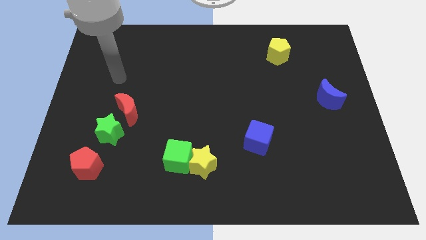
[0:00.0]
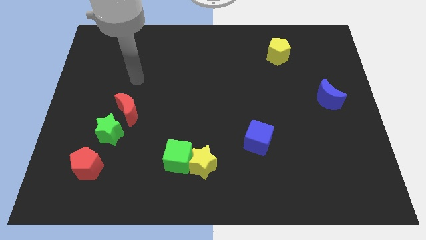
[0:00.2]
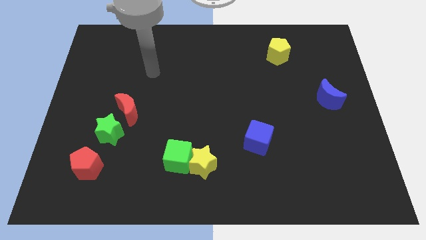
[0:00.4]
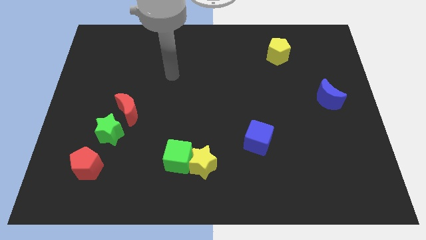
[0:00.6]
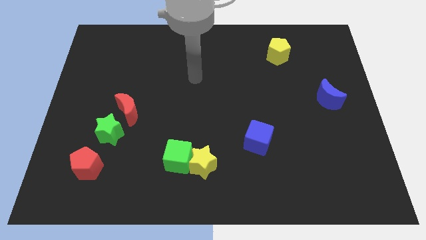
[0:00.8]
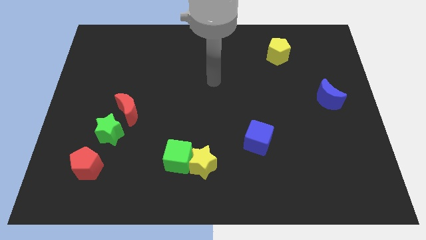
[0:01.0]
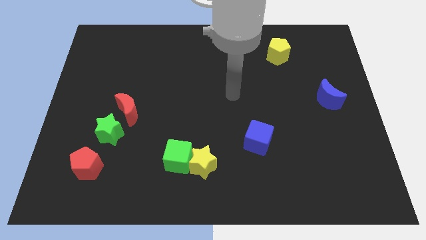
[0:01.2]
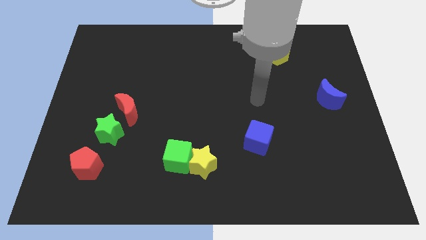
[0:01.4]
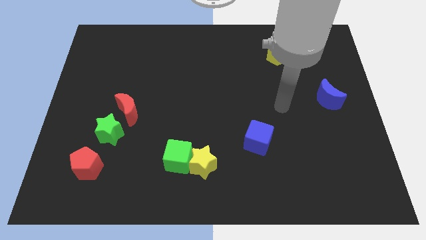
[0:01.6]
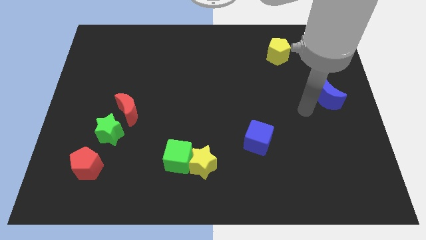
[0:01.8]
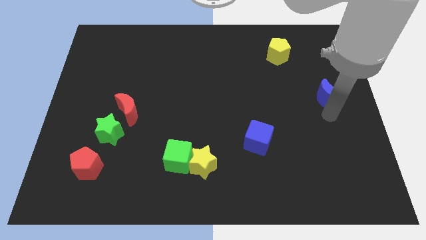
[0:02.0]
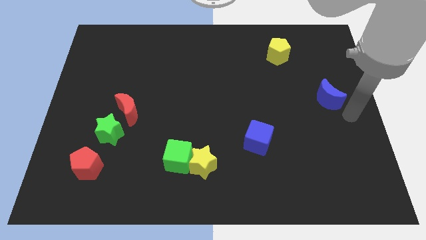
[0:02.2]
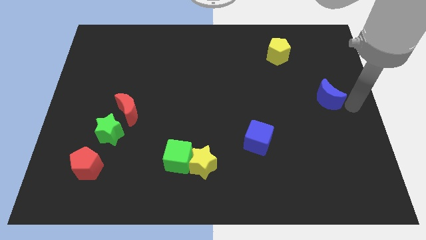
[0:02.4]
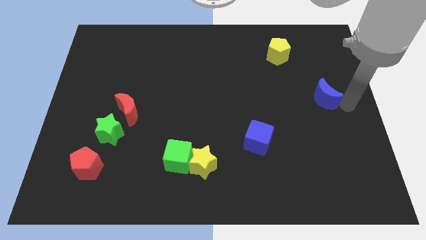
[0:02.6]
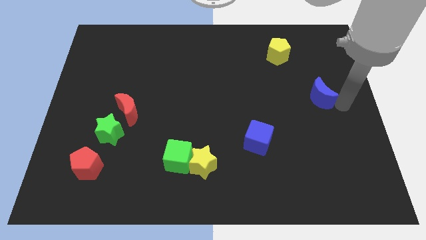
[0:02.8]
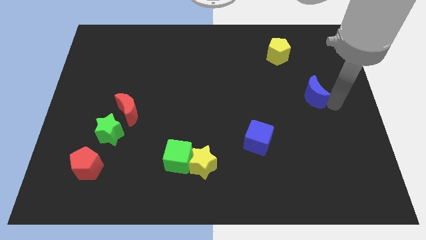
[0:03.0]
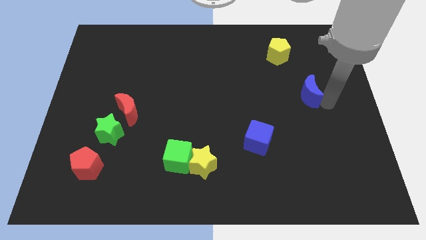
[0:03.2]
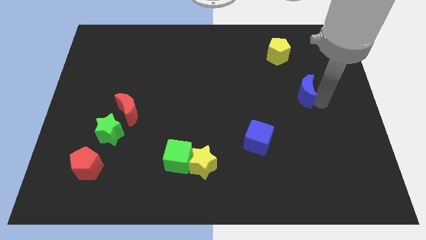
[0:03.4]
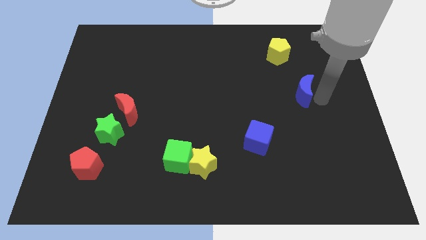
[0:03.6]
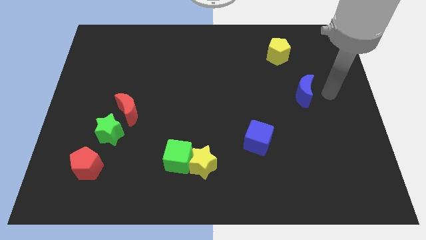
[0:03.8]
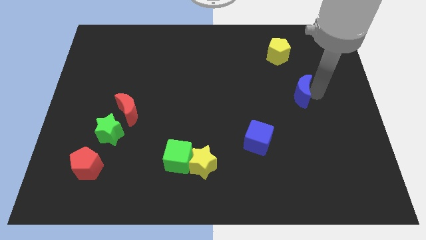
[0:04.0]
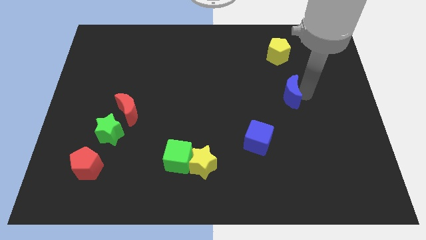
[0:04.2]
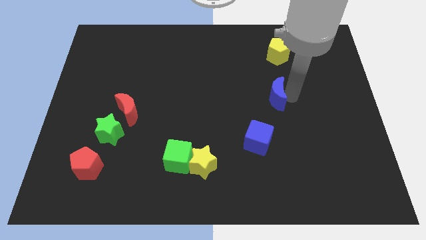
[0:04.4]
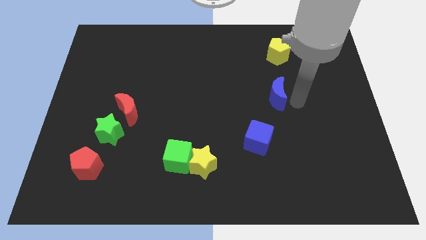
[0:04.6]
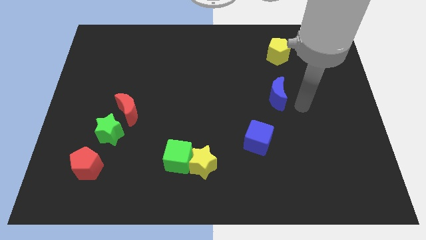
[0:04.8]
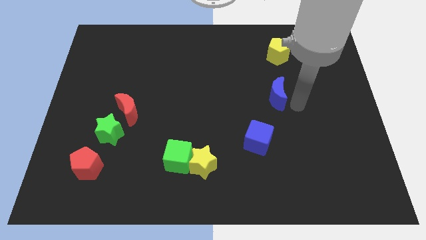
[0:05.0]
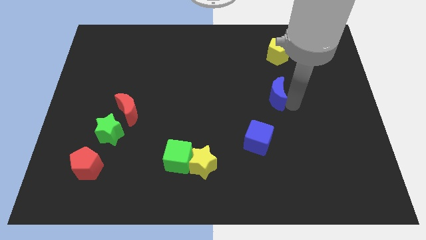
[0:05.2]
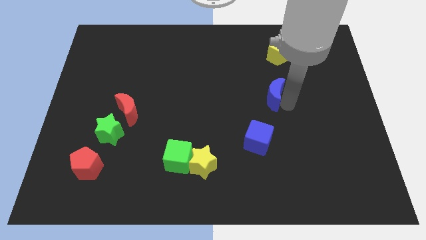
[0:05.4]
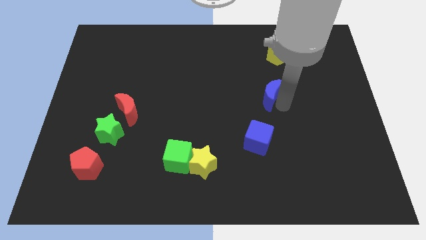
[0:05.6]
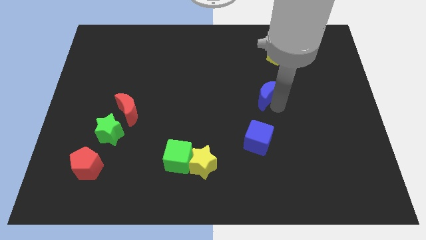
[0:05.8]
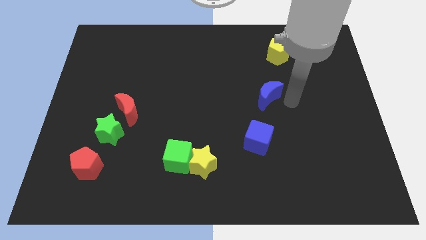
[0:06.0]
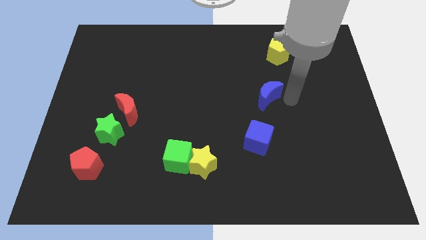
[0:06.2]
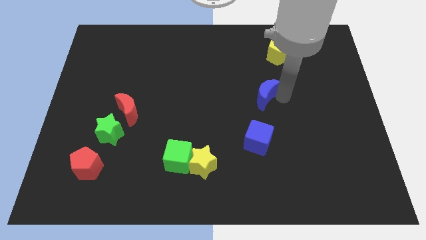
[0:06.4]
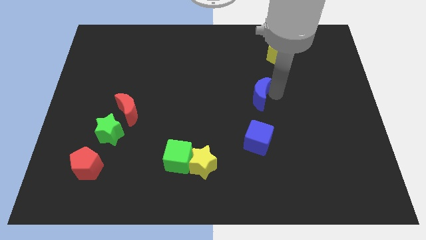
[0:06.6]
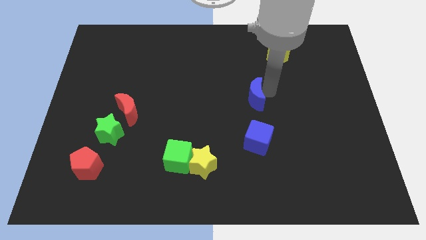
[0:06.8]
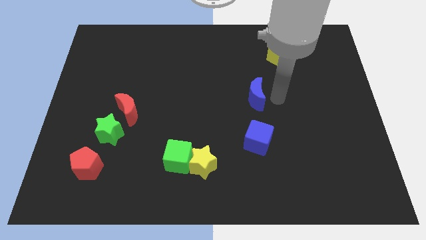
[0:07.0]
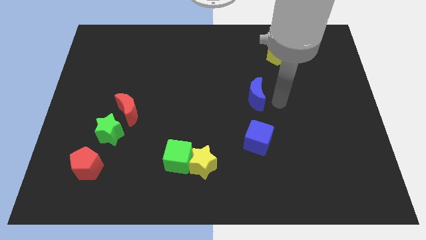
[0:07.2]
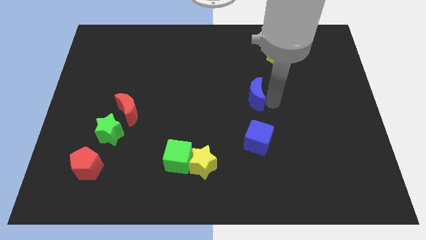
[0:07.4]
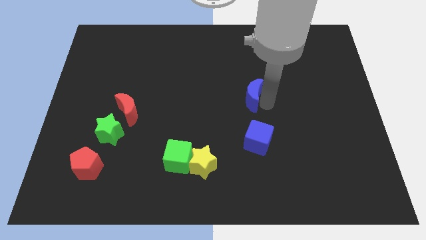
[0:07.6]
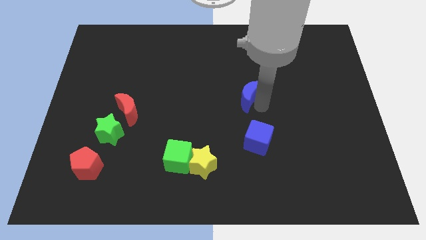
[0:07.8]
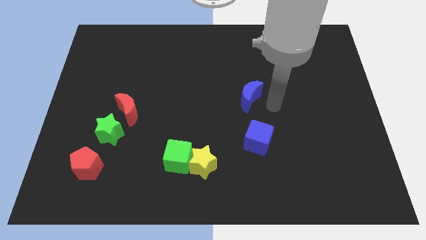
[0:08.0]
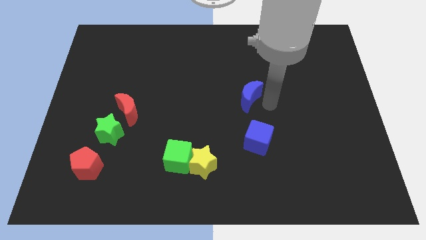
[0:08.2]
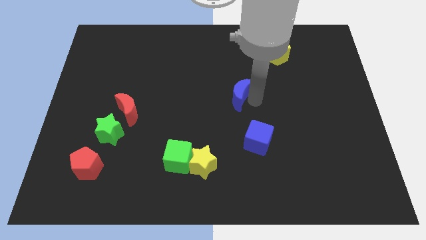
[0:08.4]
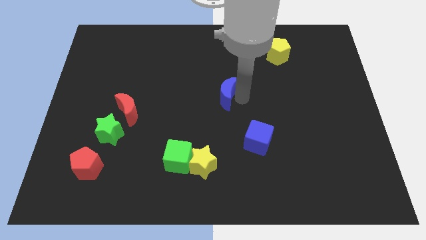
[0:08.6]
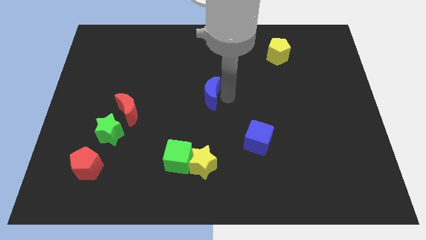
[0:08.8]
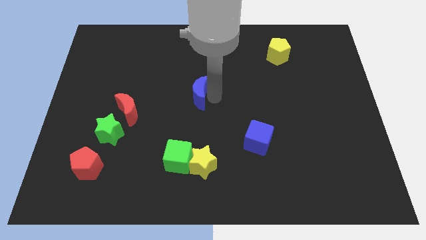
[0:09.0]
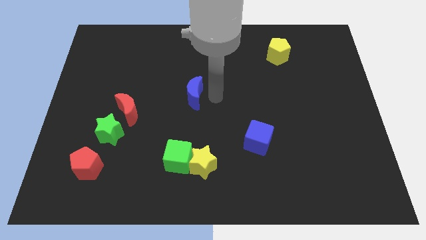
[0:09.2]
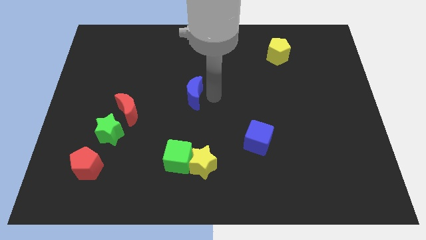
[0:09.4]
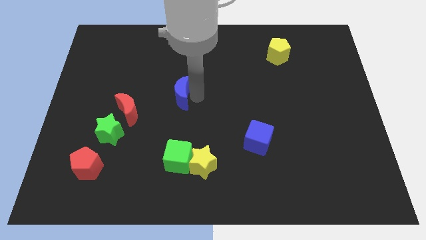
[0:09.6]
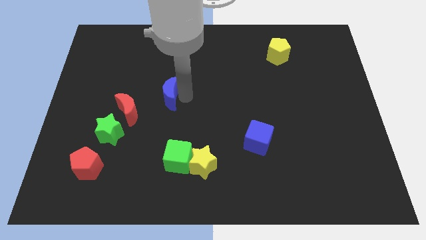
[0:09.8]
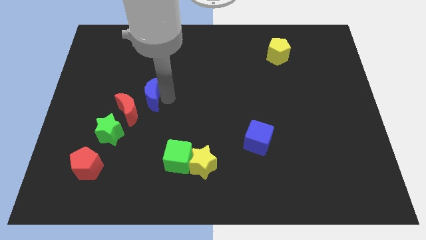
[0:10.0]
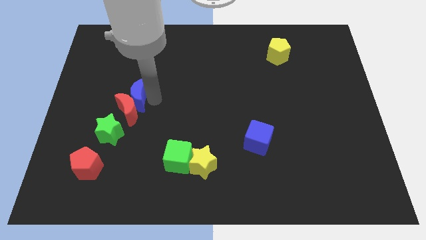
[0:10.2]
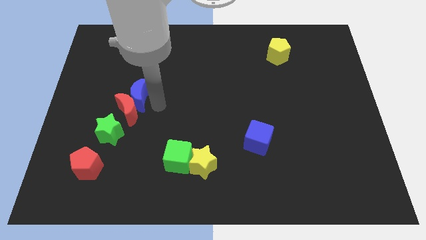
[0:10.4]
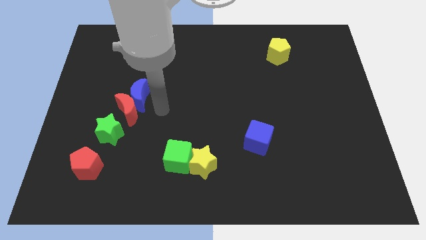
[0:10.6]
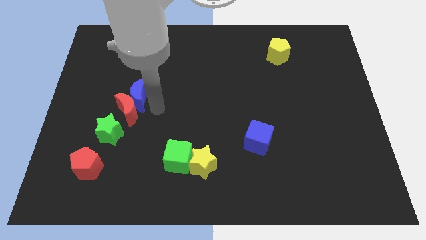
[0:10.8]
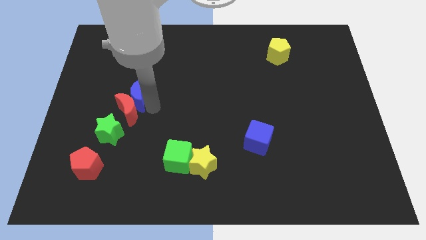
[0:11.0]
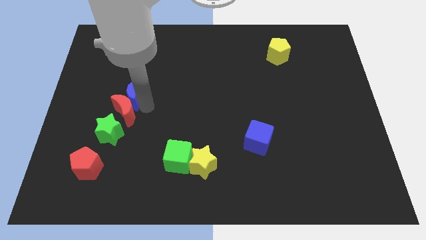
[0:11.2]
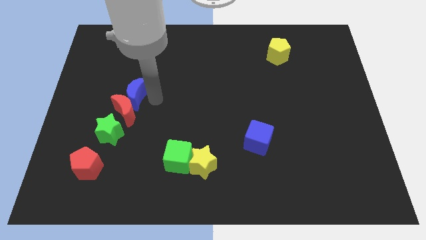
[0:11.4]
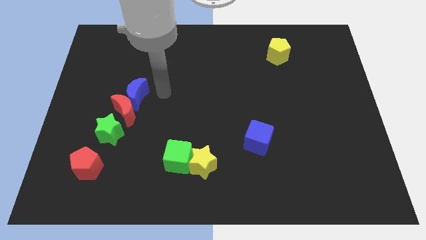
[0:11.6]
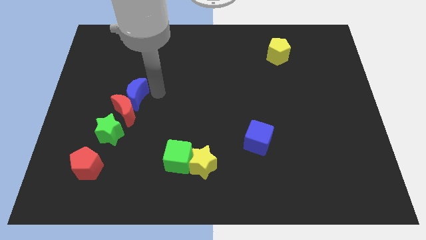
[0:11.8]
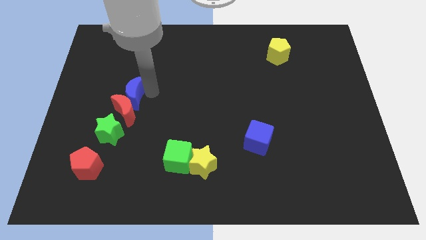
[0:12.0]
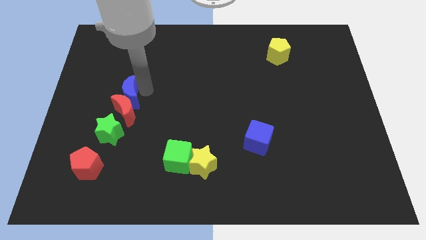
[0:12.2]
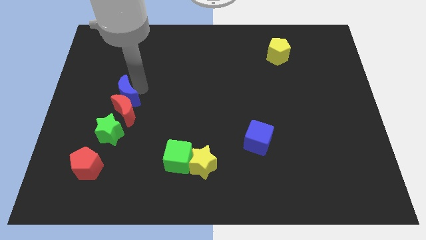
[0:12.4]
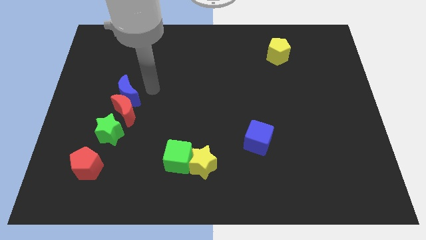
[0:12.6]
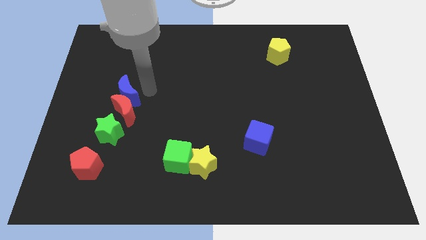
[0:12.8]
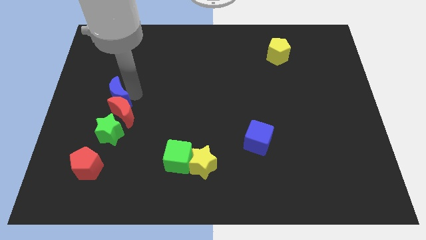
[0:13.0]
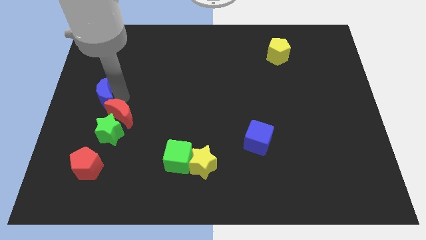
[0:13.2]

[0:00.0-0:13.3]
push the blue moon to the left side

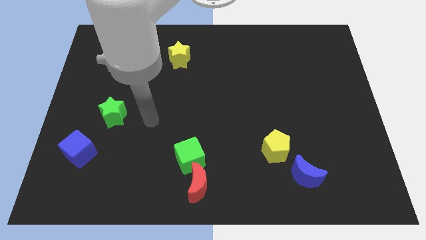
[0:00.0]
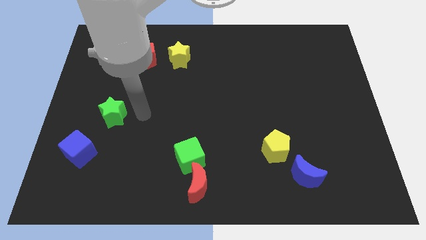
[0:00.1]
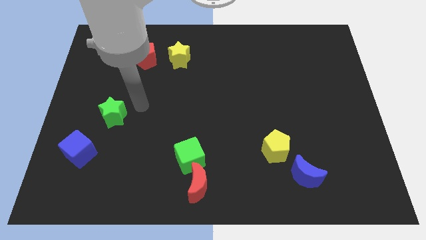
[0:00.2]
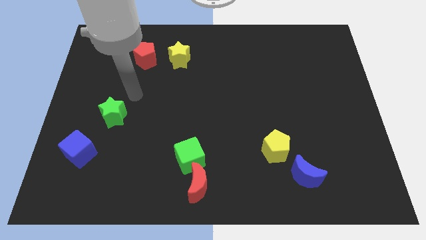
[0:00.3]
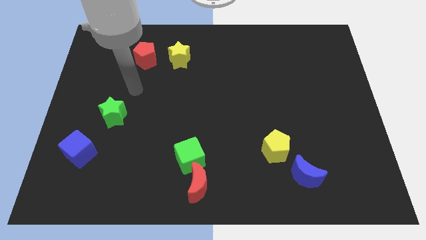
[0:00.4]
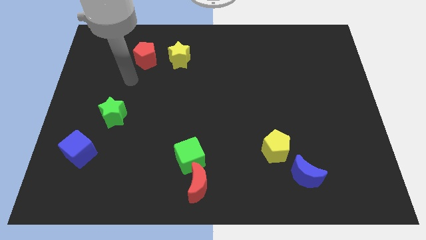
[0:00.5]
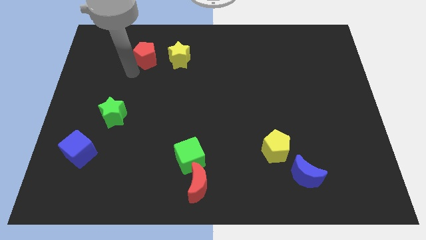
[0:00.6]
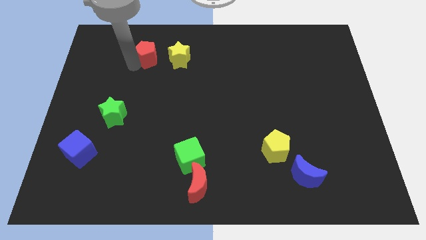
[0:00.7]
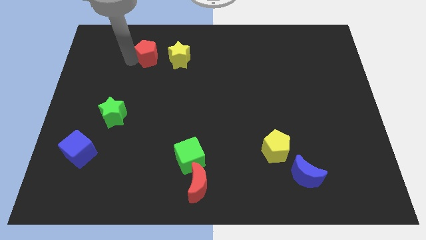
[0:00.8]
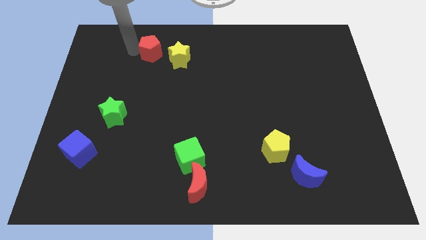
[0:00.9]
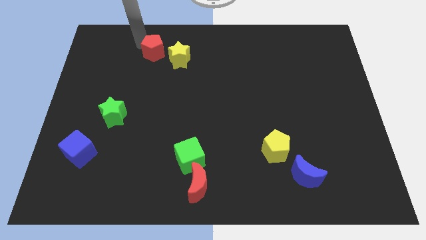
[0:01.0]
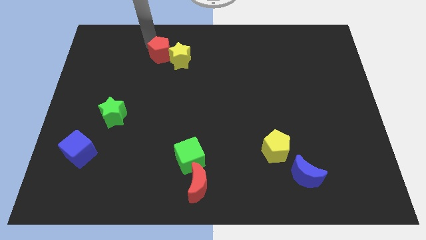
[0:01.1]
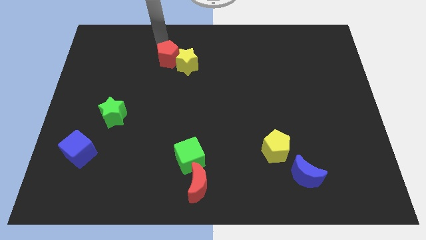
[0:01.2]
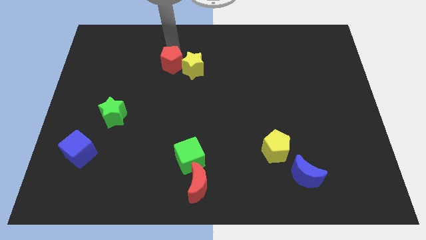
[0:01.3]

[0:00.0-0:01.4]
push the yellow star to the middle of the board
